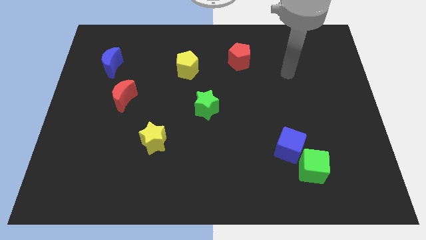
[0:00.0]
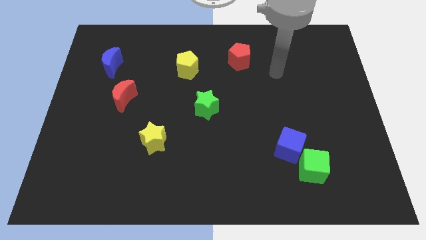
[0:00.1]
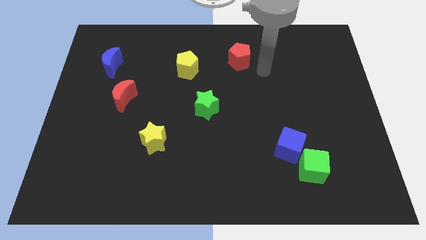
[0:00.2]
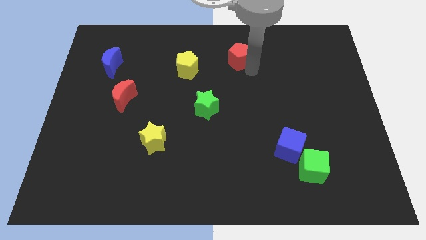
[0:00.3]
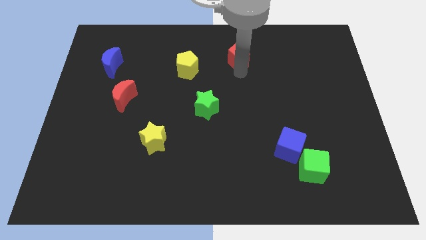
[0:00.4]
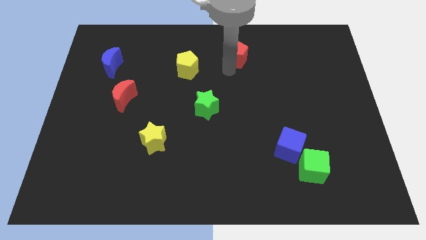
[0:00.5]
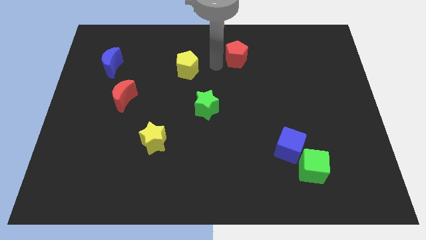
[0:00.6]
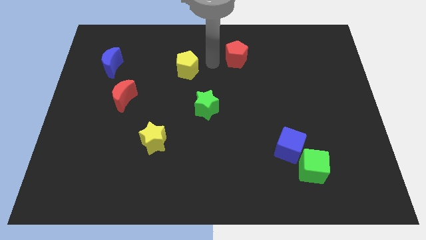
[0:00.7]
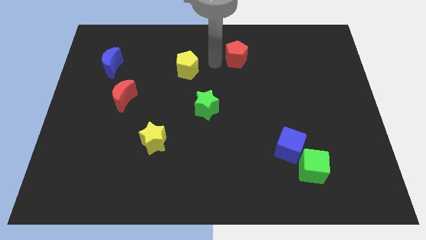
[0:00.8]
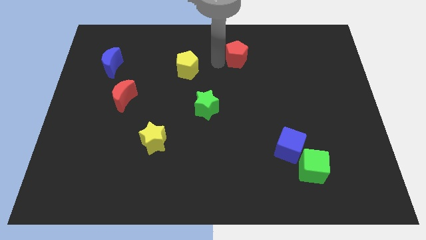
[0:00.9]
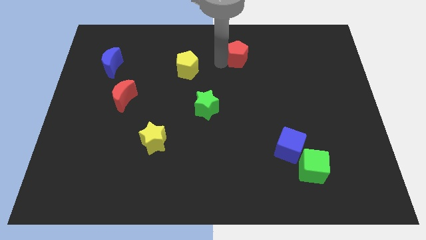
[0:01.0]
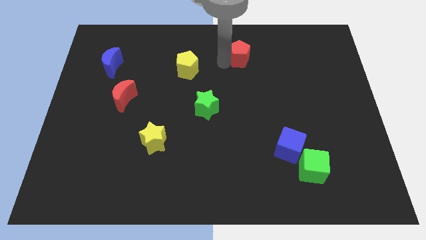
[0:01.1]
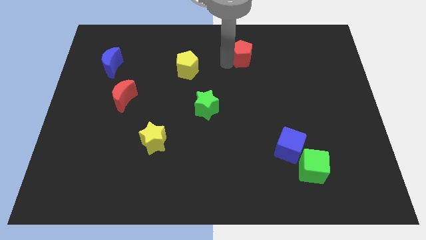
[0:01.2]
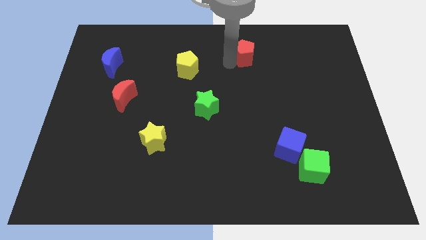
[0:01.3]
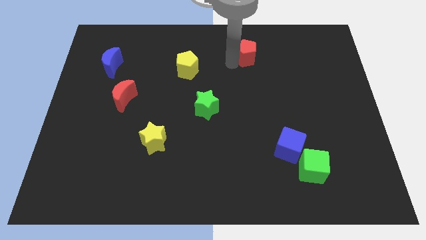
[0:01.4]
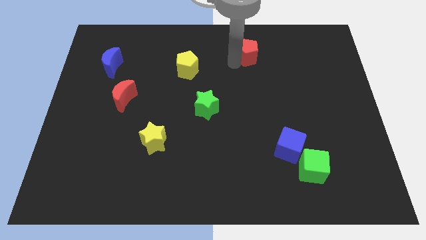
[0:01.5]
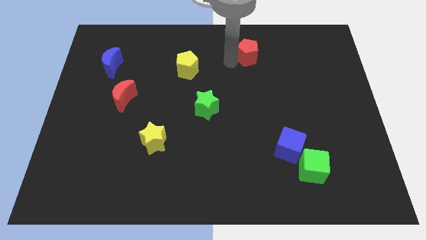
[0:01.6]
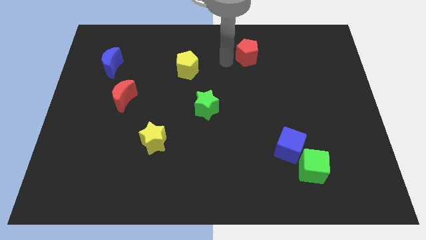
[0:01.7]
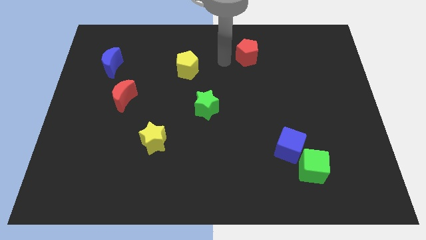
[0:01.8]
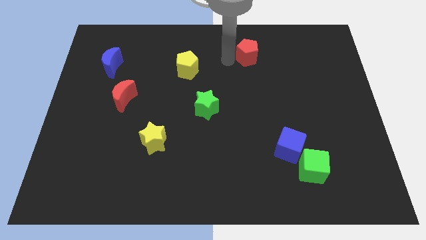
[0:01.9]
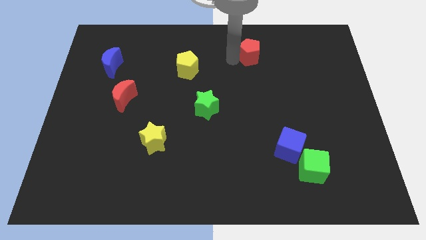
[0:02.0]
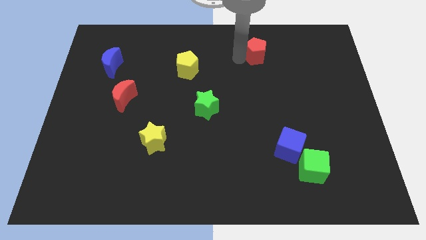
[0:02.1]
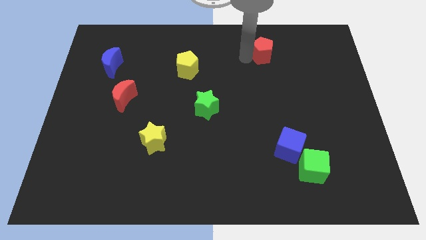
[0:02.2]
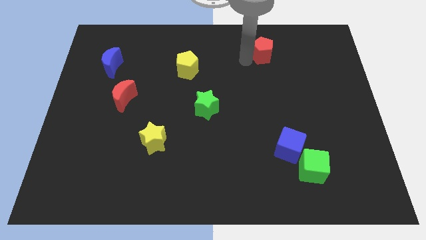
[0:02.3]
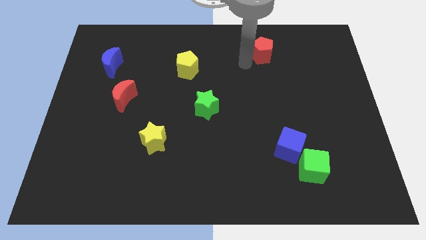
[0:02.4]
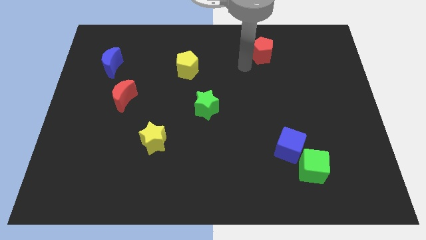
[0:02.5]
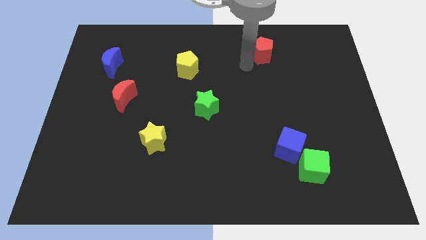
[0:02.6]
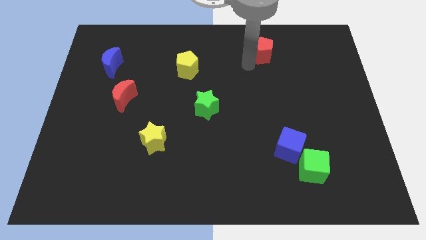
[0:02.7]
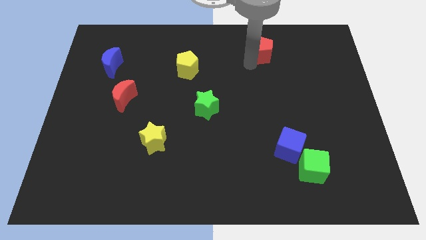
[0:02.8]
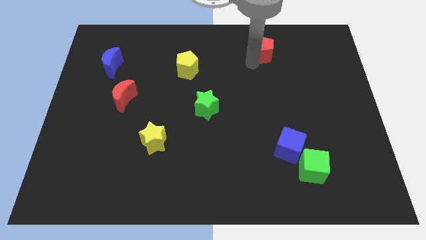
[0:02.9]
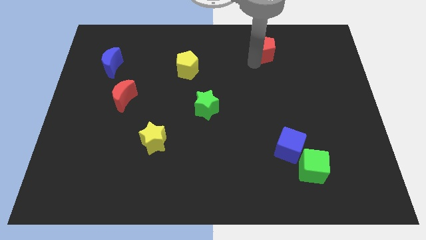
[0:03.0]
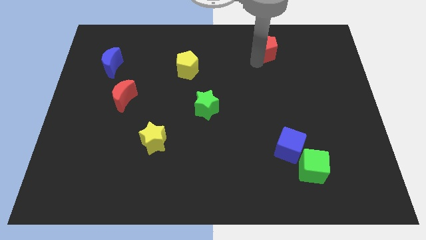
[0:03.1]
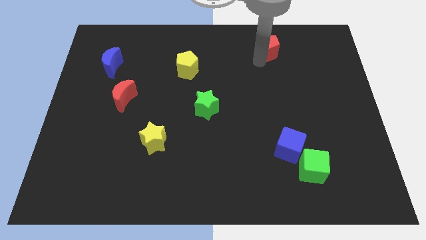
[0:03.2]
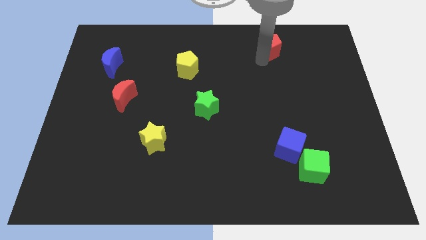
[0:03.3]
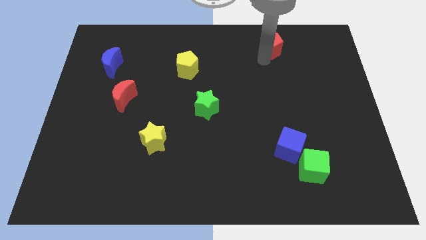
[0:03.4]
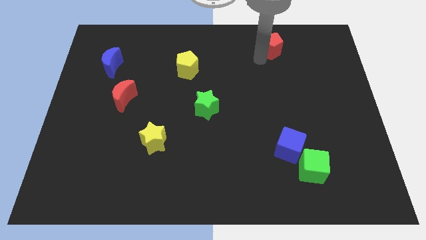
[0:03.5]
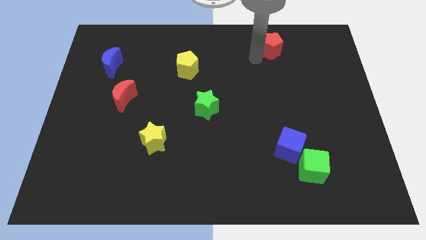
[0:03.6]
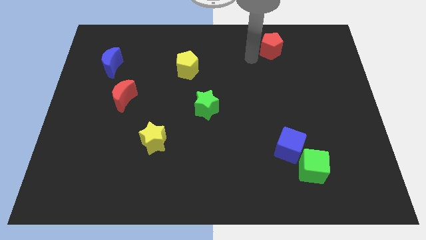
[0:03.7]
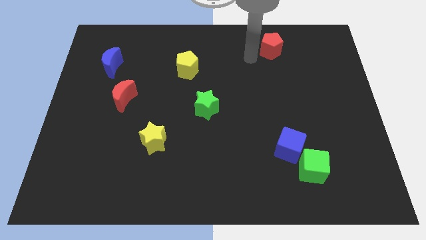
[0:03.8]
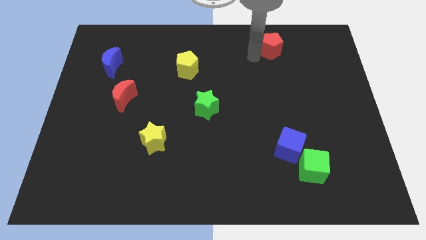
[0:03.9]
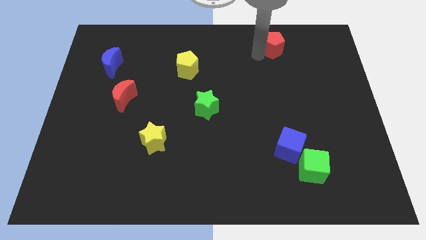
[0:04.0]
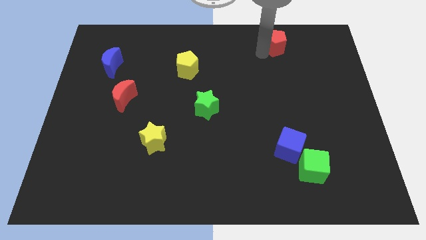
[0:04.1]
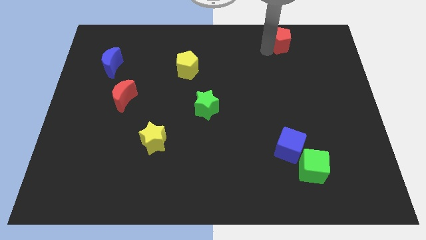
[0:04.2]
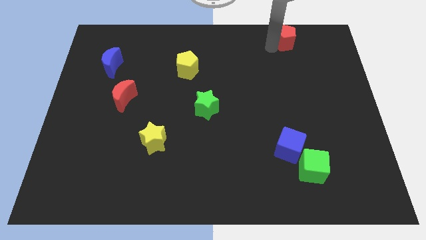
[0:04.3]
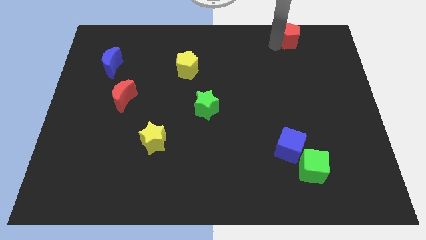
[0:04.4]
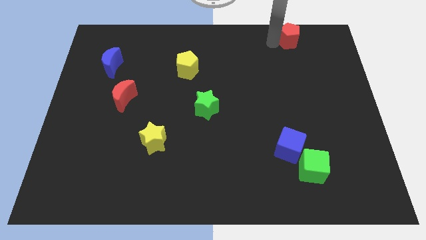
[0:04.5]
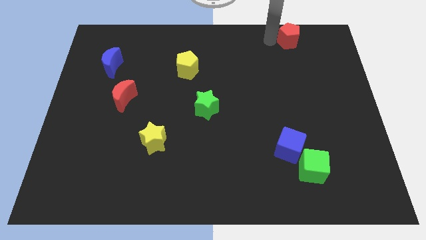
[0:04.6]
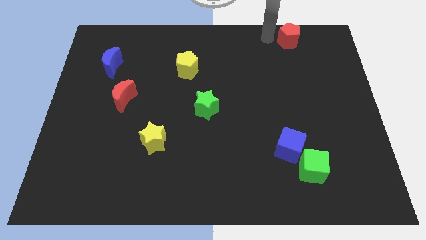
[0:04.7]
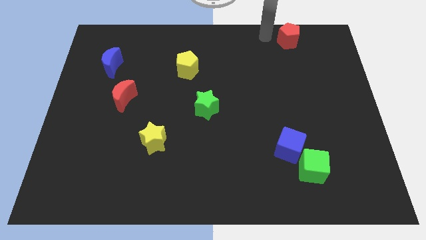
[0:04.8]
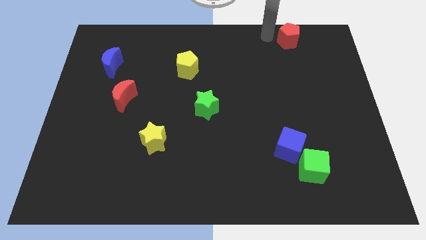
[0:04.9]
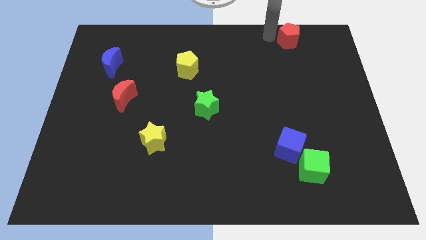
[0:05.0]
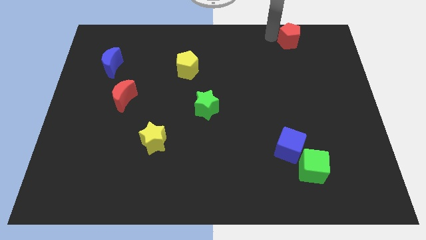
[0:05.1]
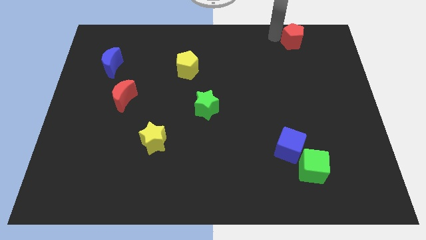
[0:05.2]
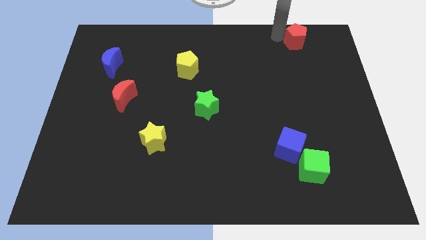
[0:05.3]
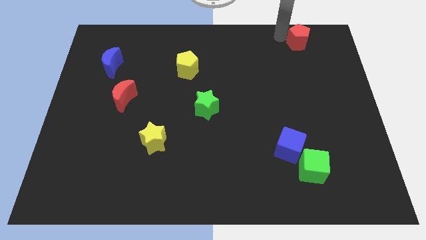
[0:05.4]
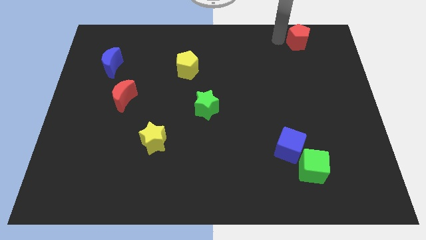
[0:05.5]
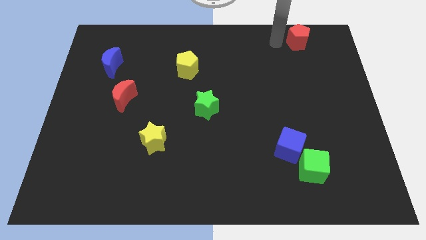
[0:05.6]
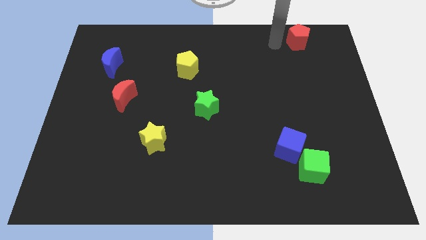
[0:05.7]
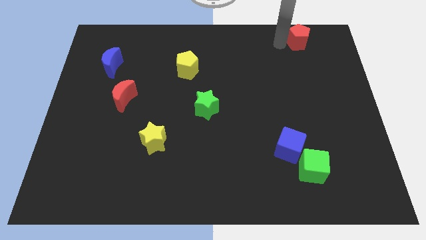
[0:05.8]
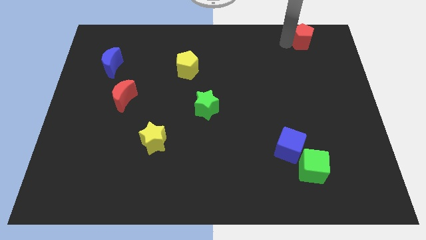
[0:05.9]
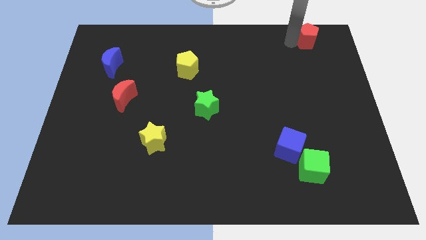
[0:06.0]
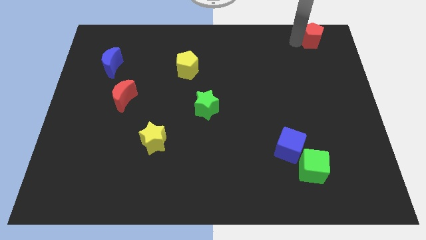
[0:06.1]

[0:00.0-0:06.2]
move the red pentagon to the top right corner
